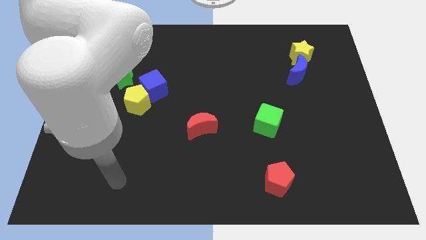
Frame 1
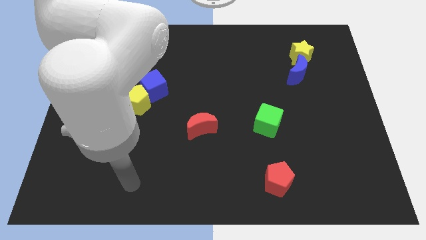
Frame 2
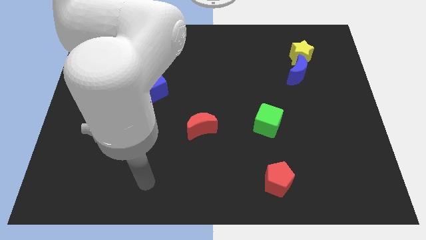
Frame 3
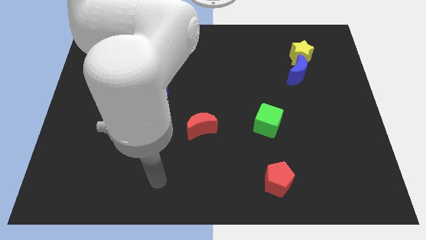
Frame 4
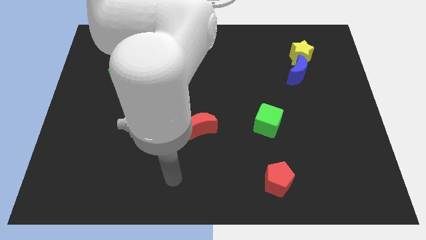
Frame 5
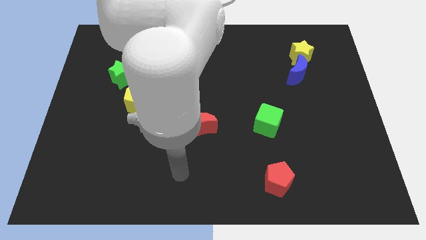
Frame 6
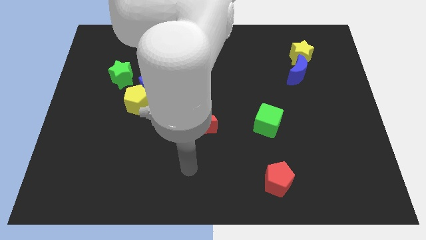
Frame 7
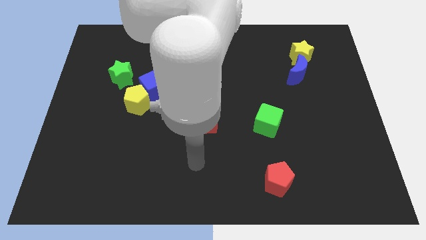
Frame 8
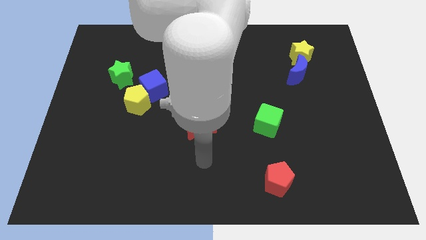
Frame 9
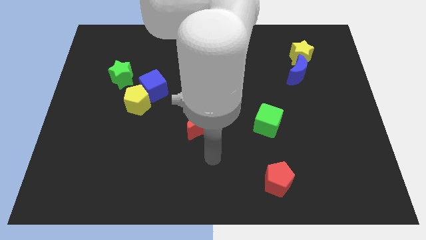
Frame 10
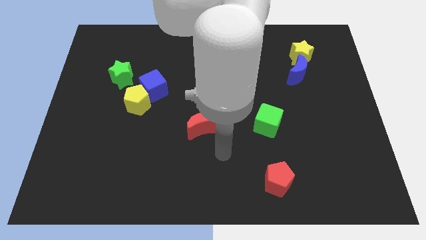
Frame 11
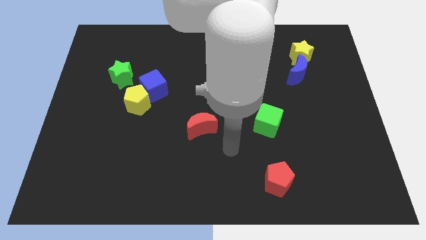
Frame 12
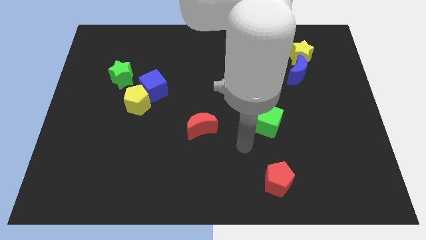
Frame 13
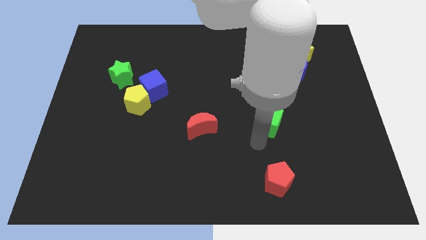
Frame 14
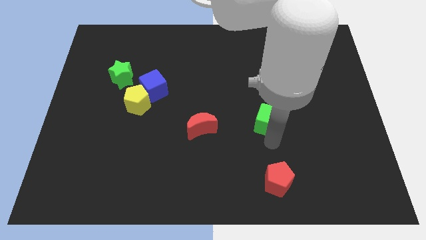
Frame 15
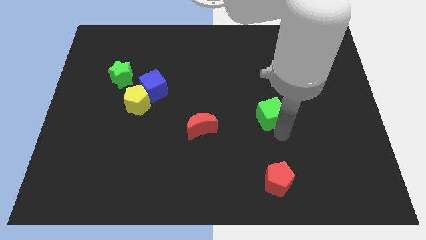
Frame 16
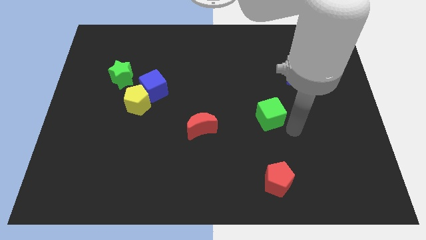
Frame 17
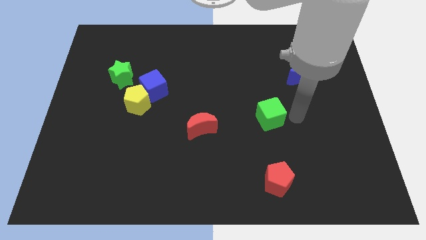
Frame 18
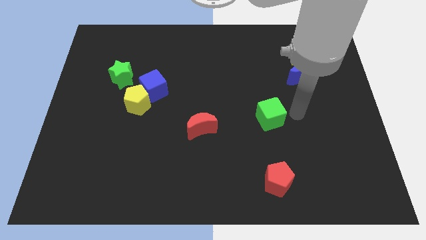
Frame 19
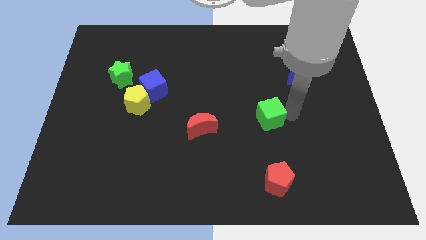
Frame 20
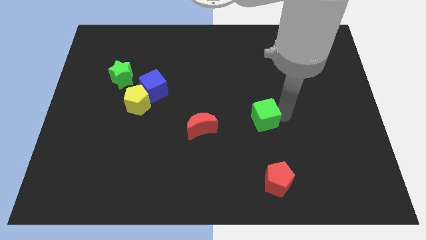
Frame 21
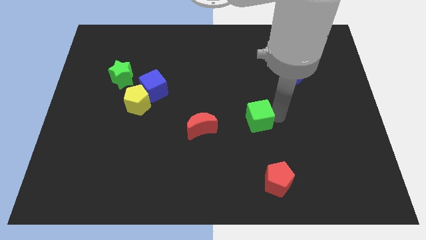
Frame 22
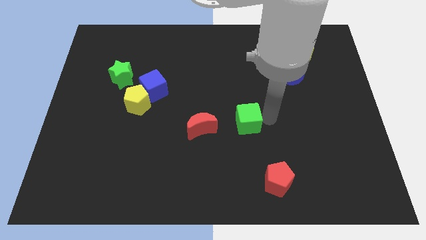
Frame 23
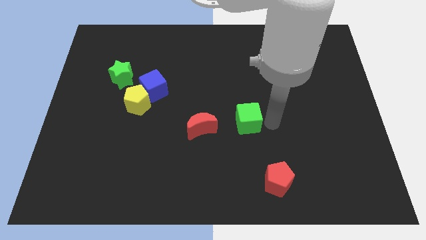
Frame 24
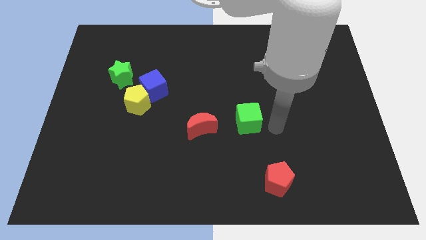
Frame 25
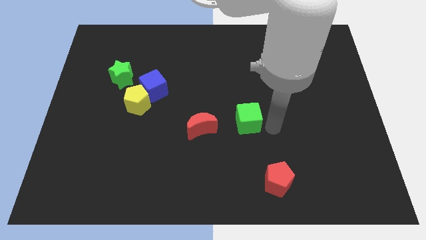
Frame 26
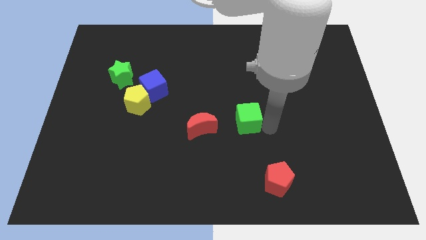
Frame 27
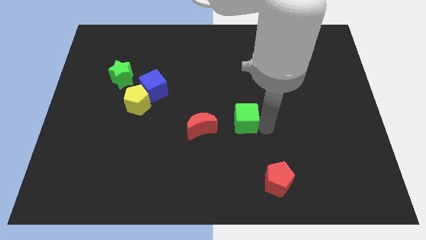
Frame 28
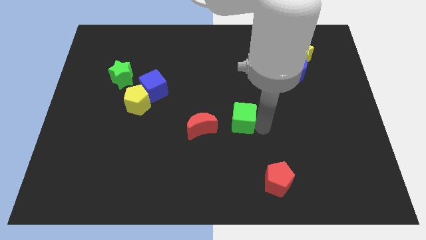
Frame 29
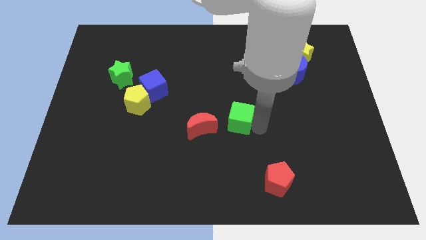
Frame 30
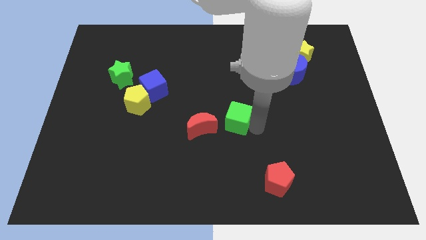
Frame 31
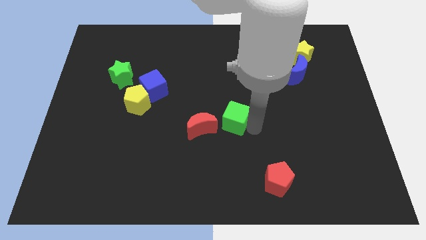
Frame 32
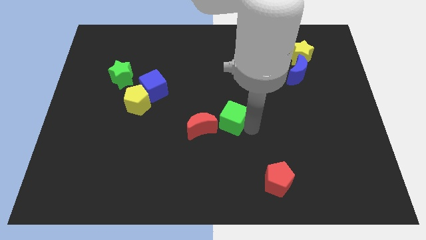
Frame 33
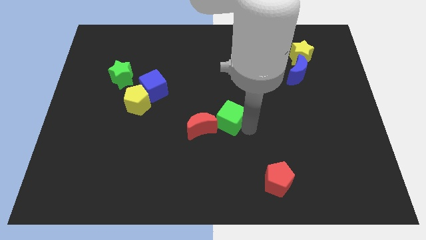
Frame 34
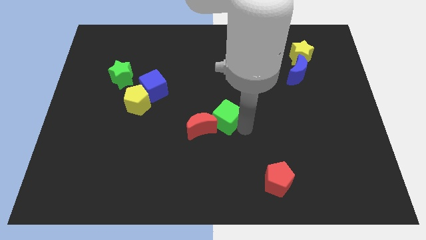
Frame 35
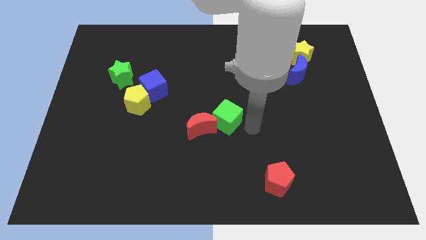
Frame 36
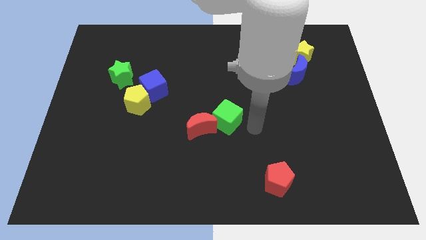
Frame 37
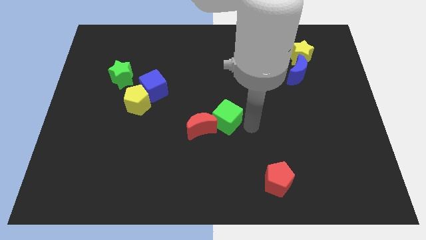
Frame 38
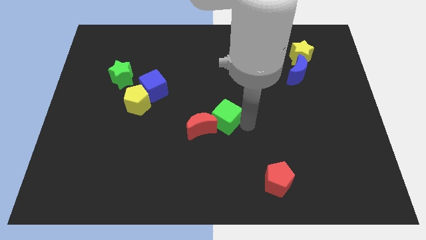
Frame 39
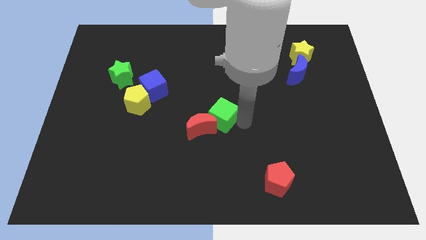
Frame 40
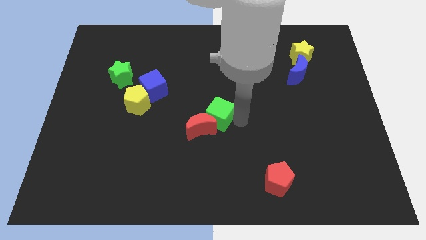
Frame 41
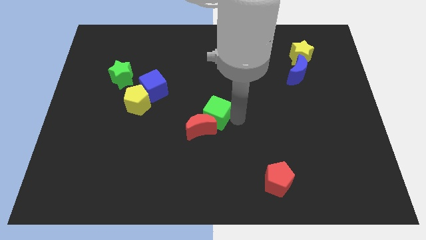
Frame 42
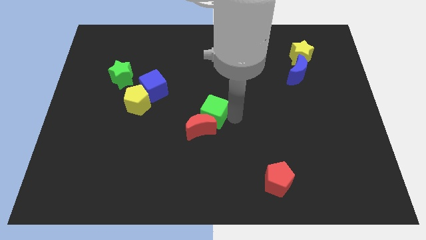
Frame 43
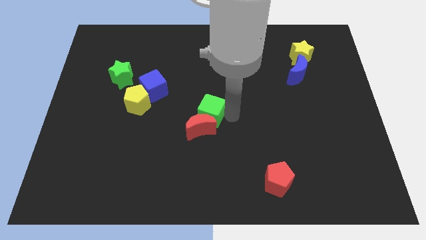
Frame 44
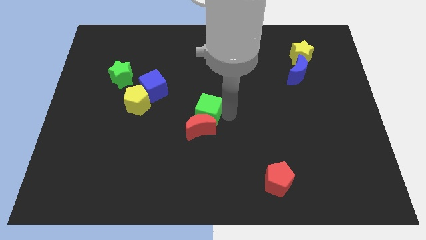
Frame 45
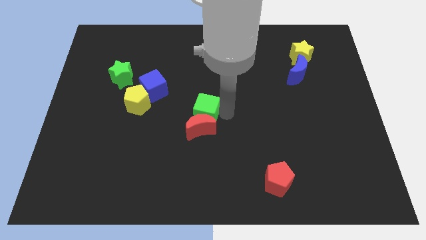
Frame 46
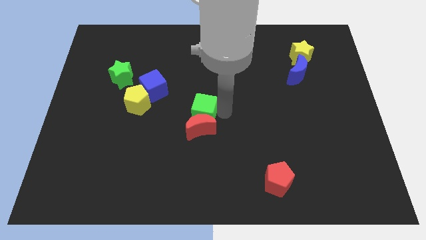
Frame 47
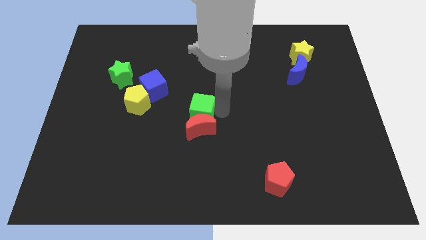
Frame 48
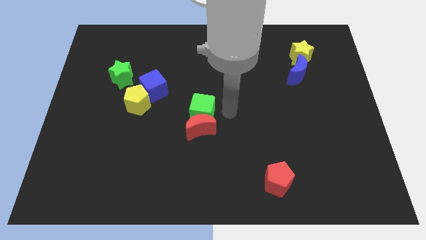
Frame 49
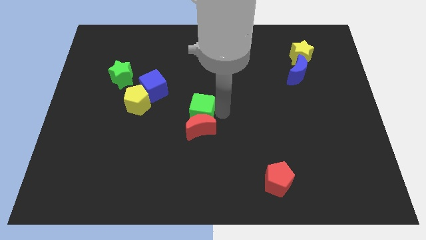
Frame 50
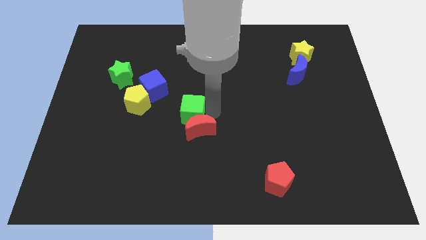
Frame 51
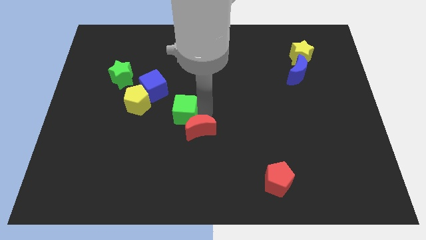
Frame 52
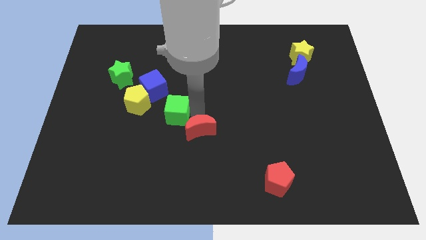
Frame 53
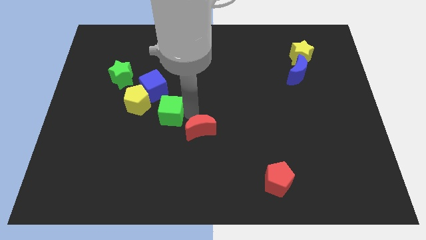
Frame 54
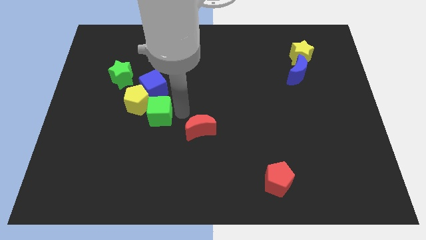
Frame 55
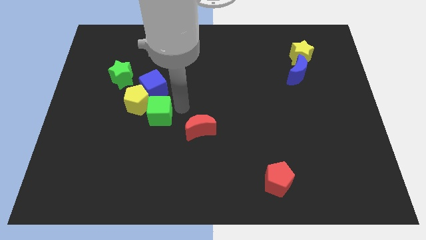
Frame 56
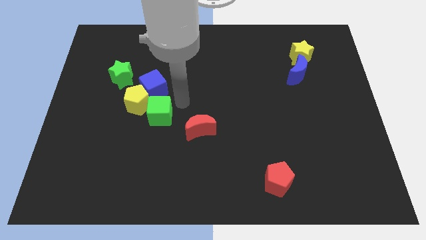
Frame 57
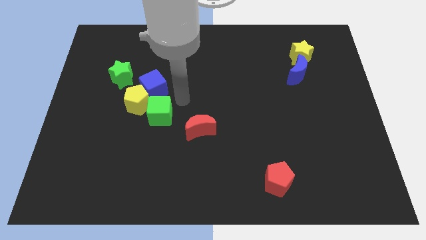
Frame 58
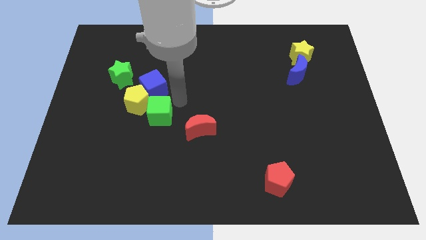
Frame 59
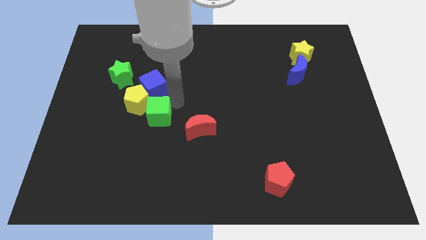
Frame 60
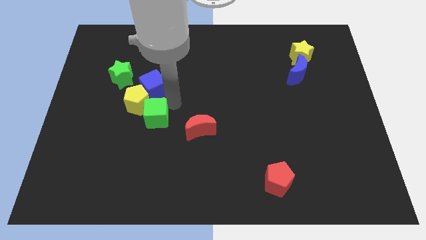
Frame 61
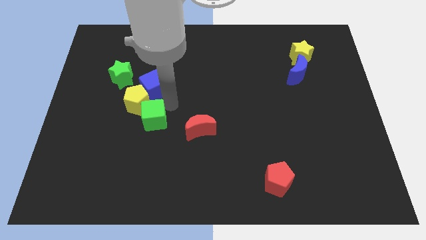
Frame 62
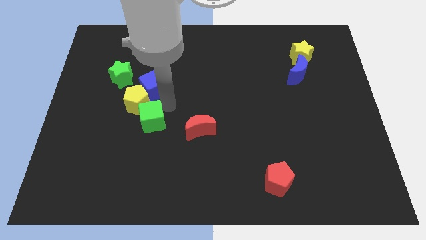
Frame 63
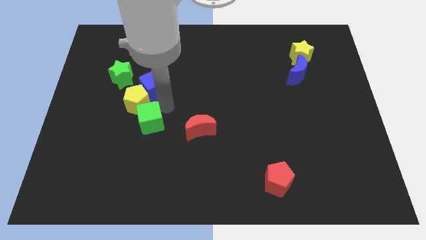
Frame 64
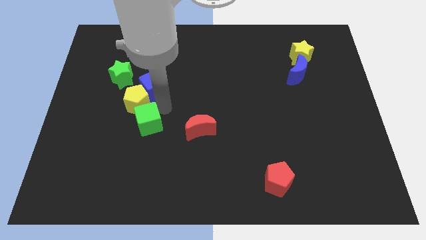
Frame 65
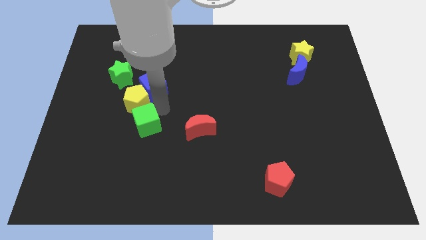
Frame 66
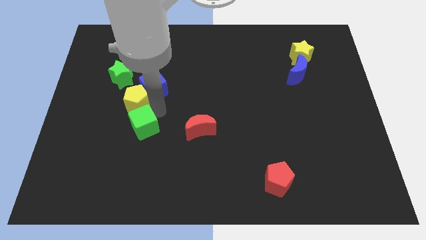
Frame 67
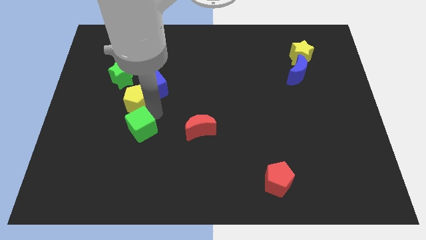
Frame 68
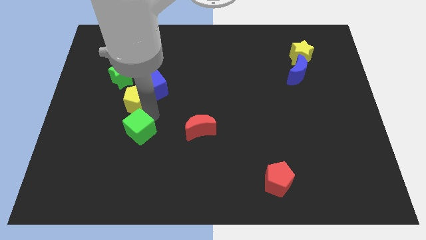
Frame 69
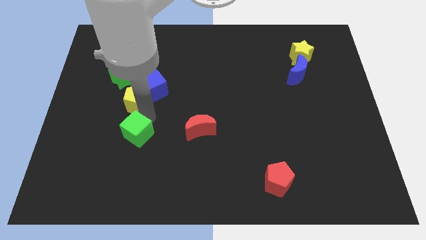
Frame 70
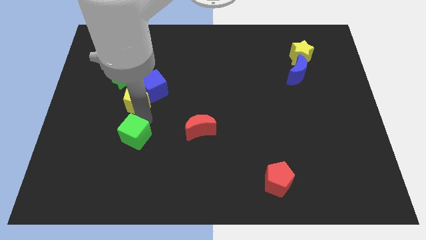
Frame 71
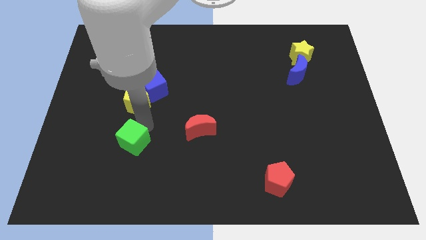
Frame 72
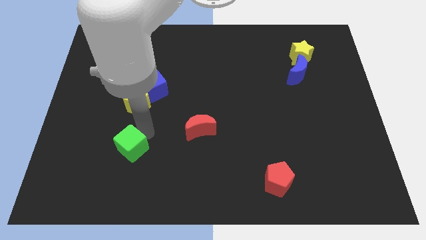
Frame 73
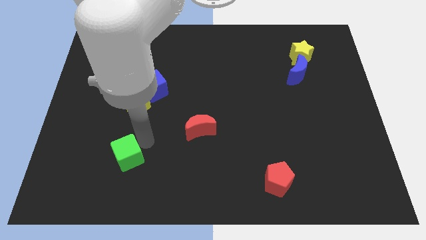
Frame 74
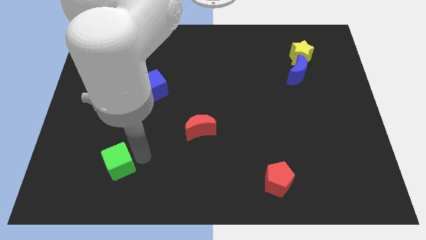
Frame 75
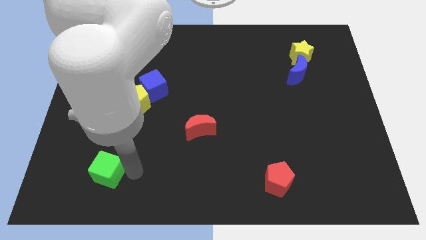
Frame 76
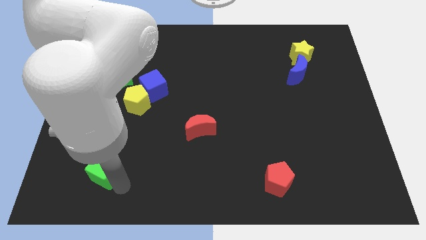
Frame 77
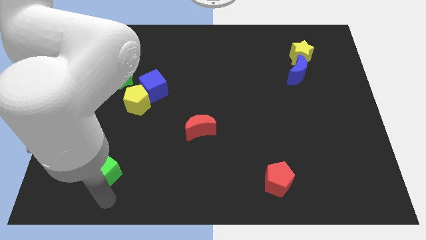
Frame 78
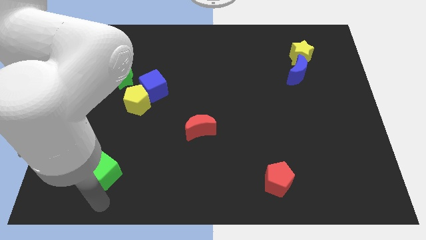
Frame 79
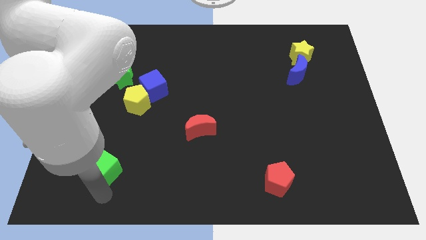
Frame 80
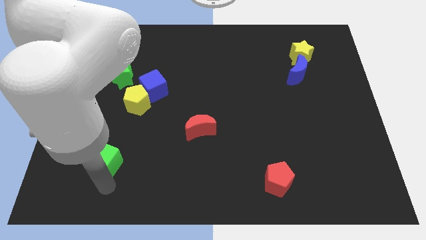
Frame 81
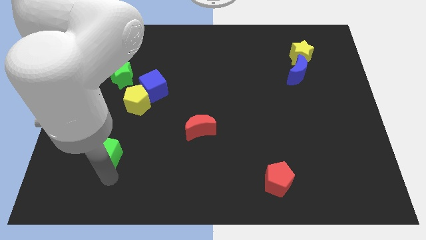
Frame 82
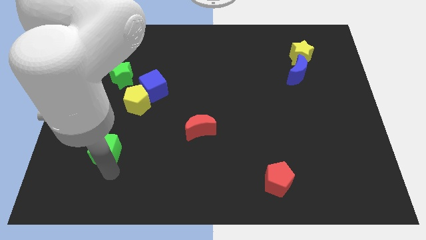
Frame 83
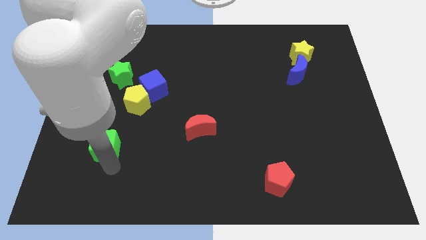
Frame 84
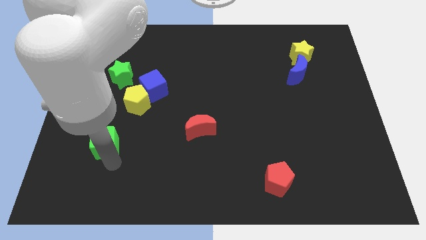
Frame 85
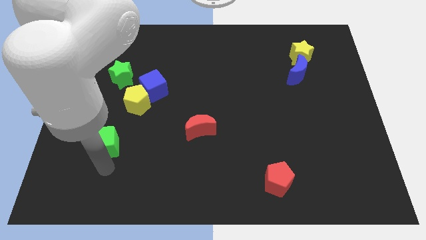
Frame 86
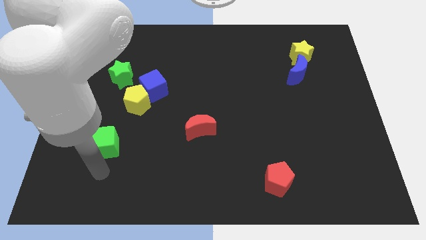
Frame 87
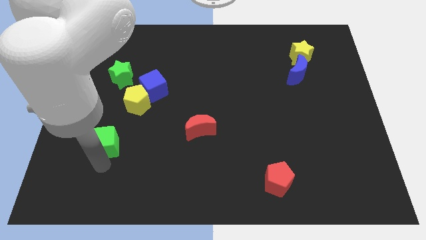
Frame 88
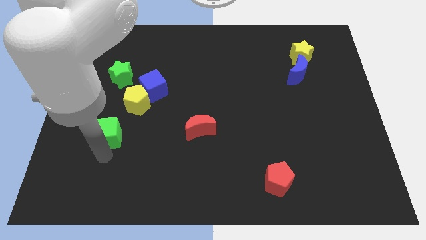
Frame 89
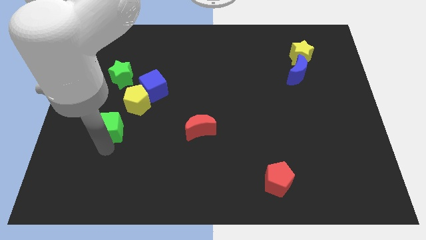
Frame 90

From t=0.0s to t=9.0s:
push the green cube to the bottom side of the green star
